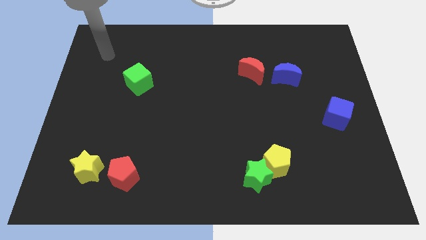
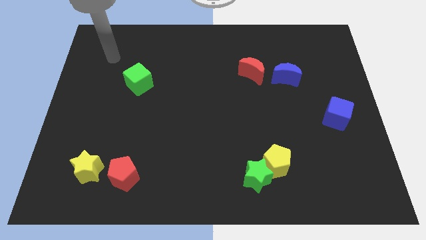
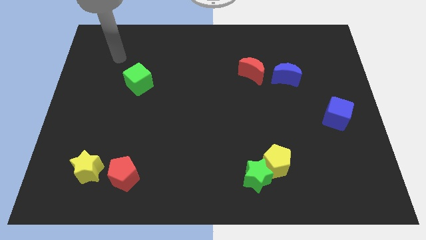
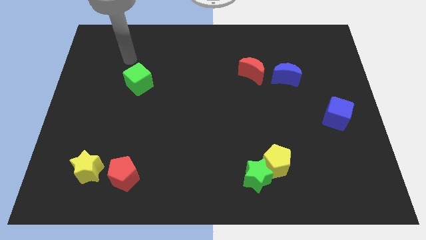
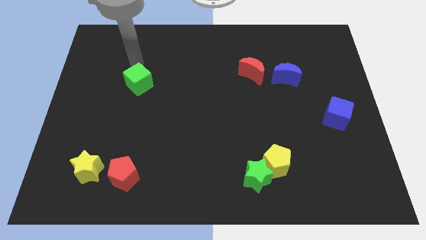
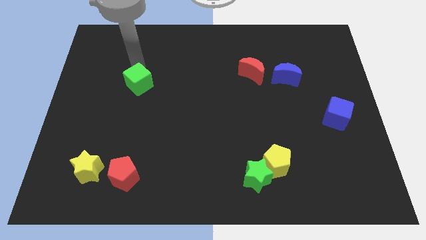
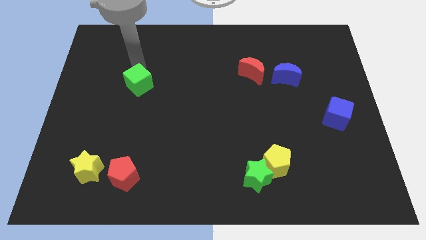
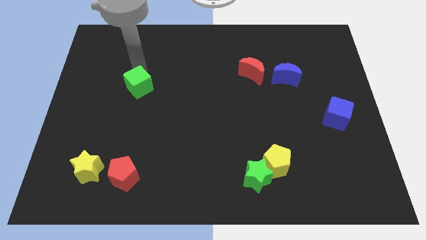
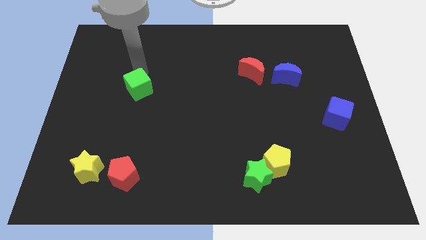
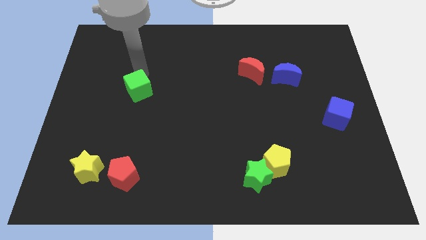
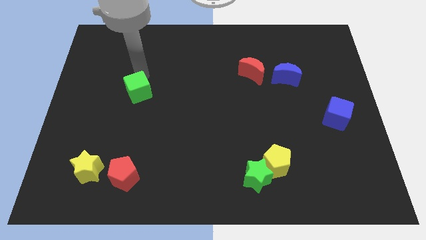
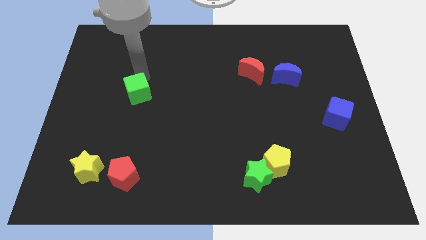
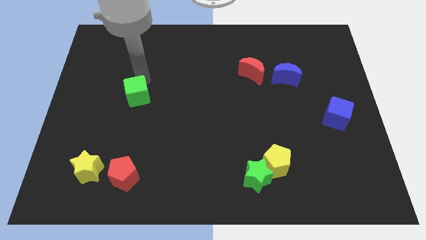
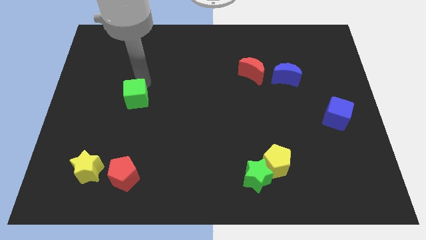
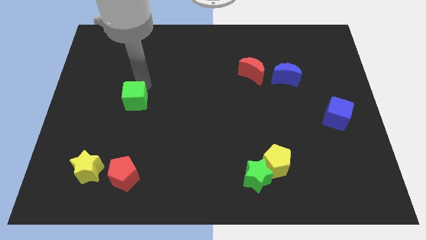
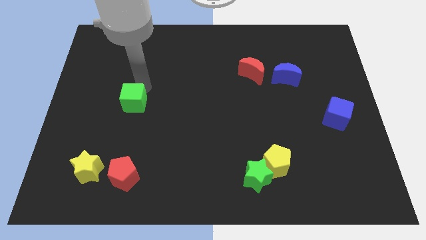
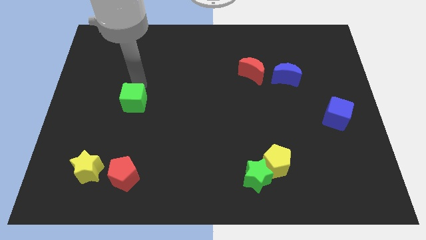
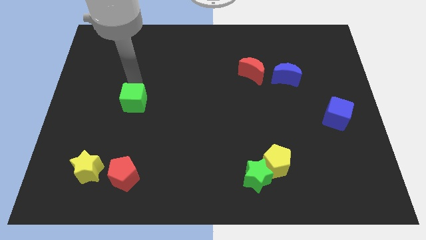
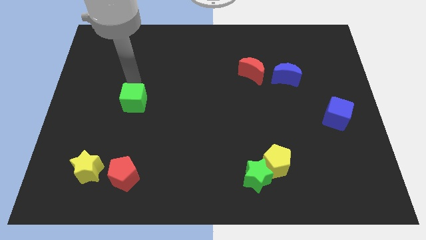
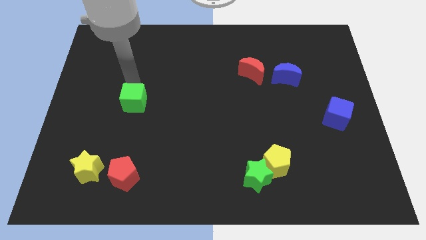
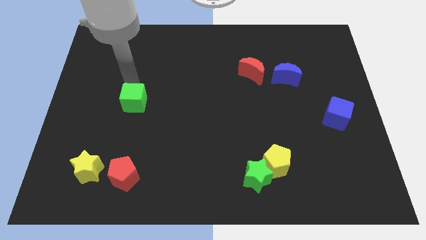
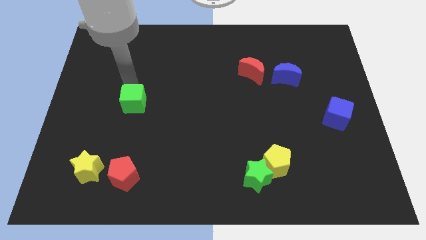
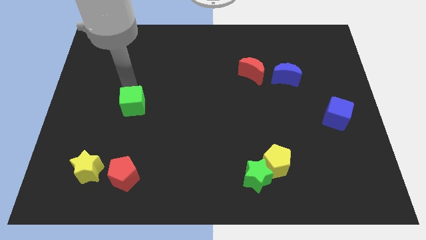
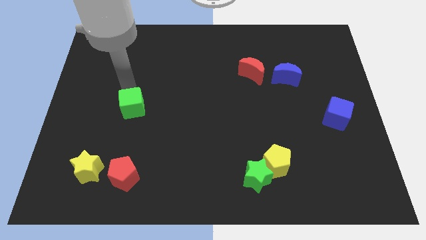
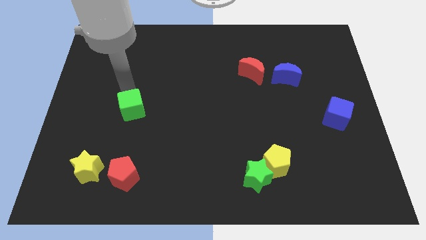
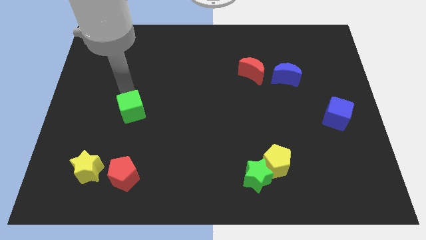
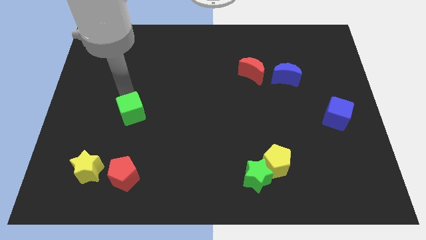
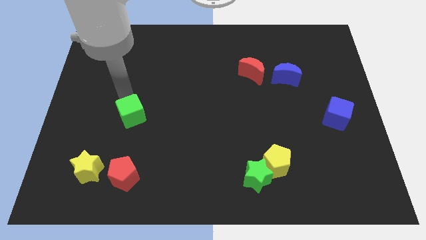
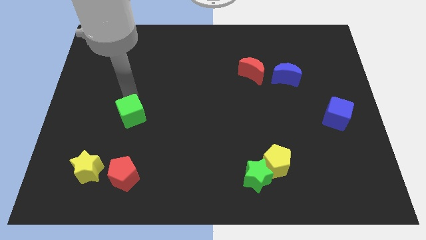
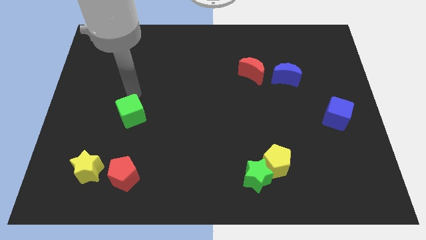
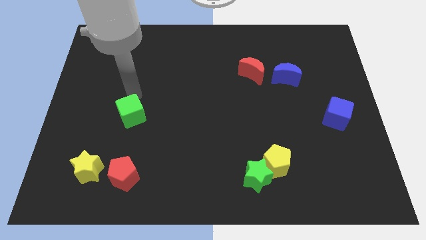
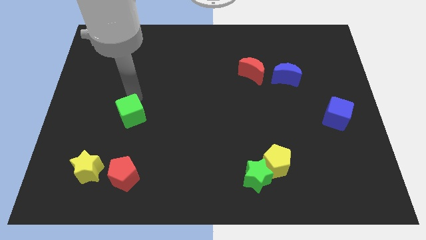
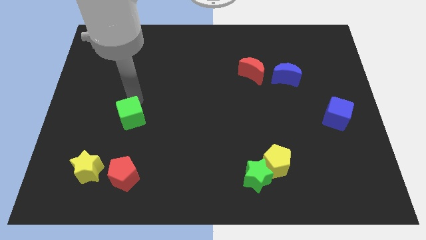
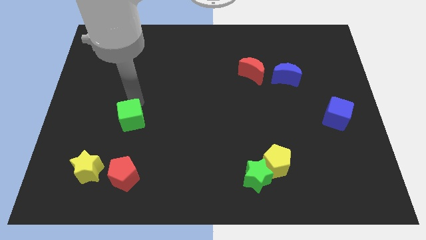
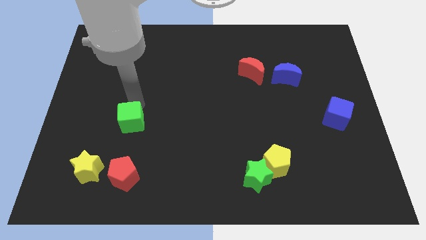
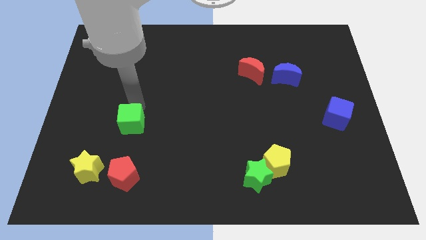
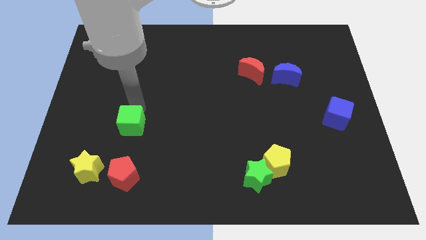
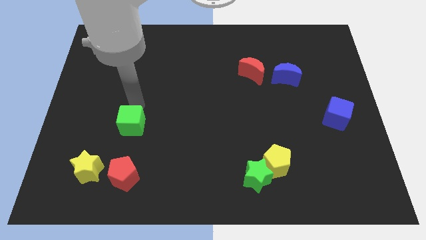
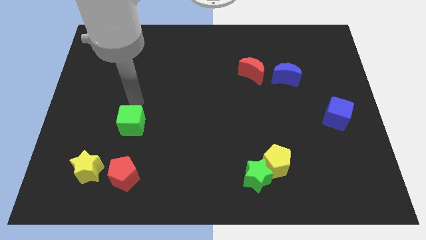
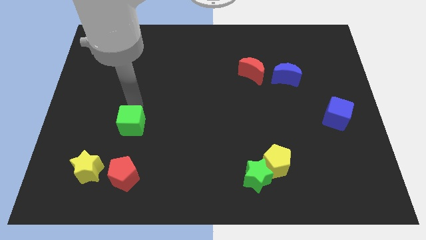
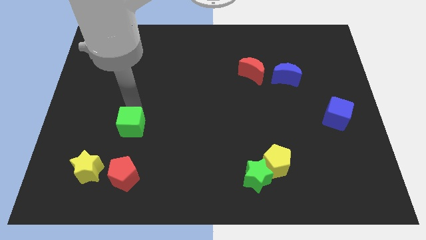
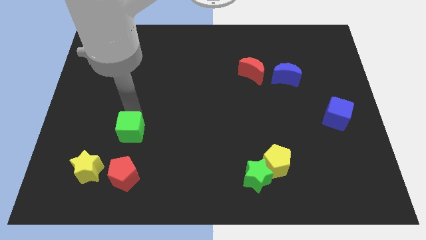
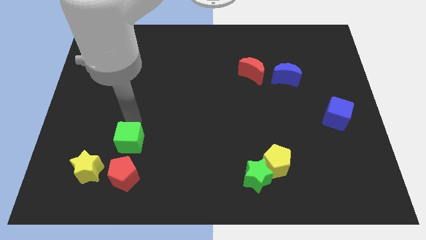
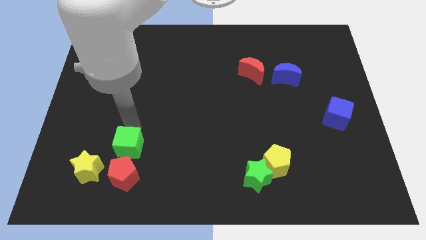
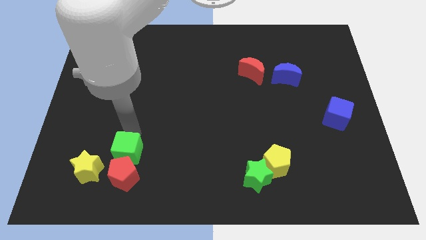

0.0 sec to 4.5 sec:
move the green cube close to the red pentagon

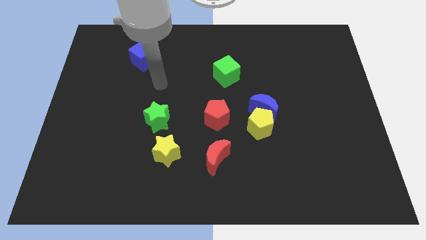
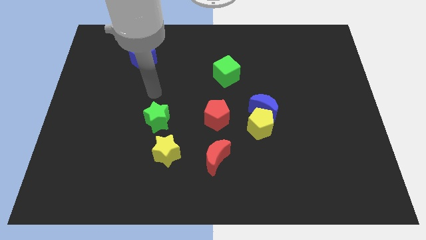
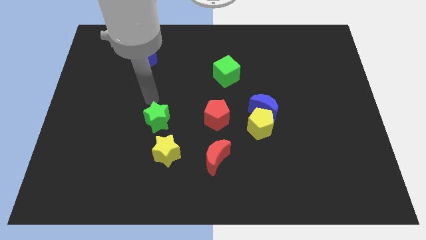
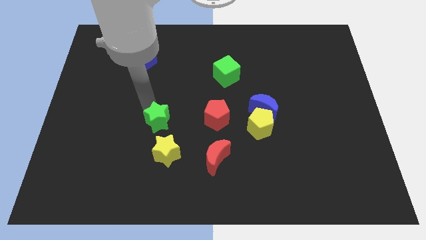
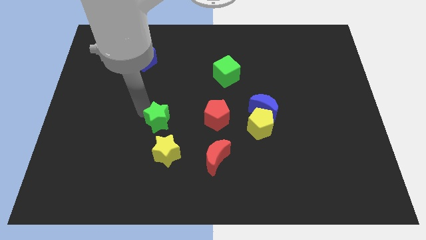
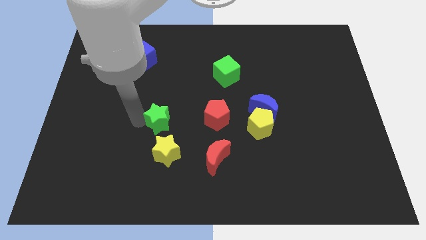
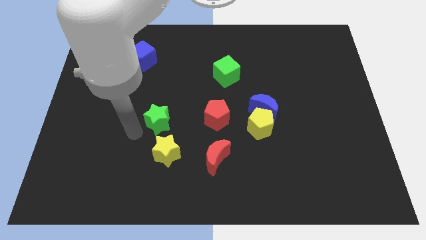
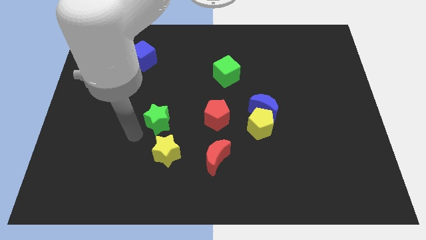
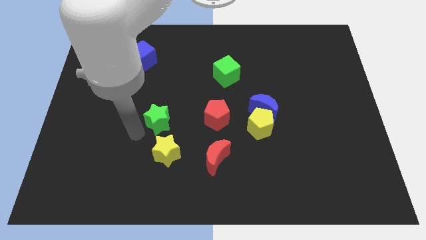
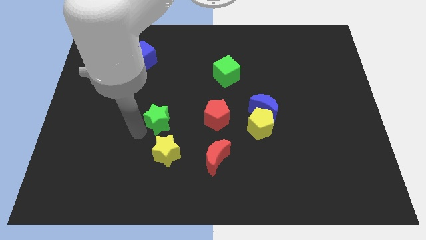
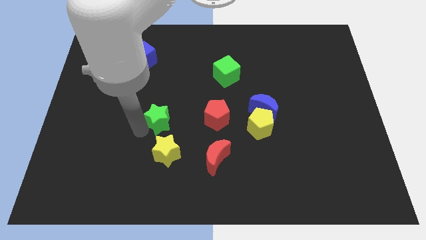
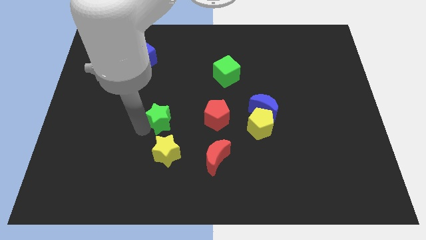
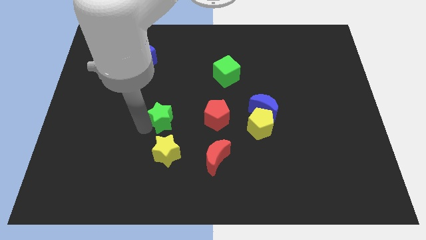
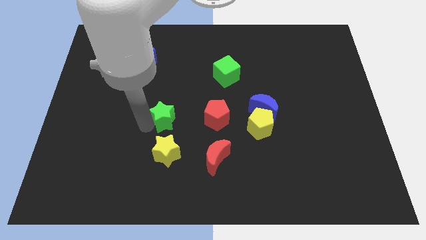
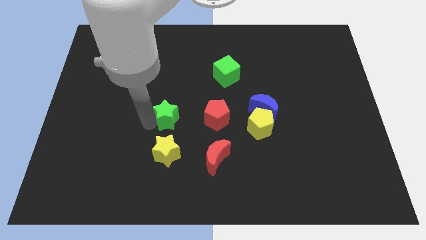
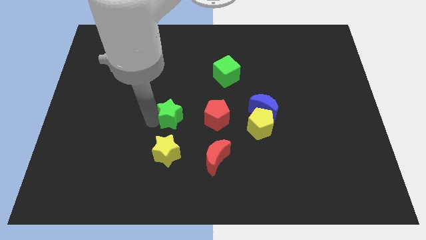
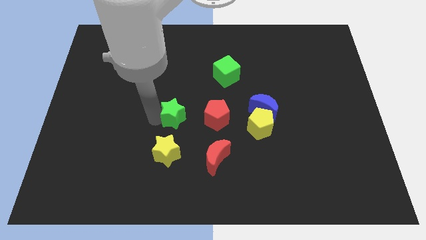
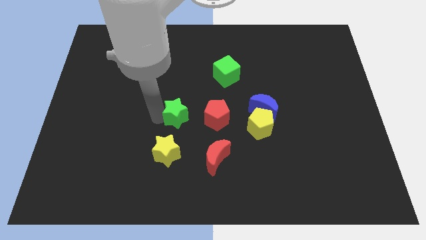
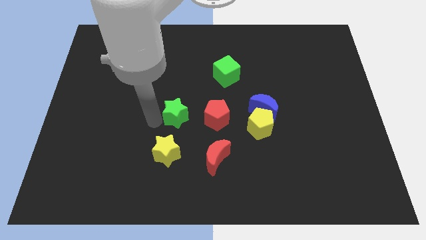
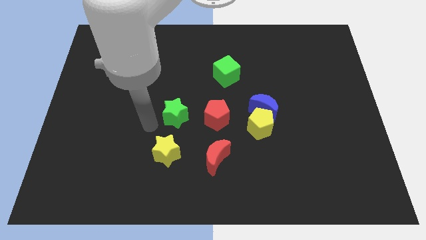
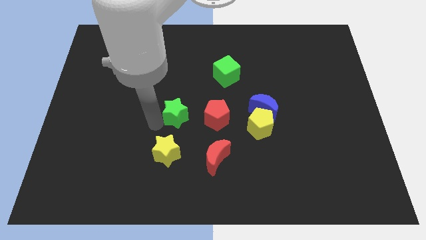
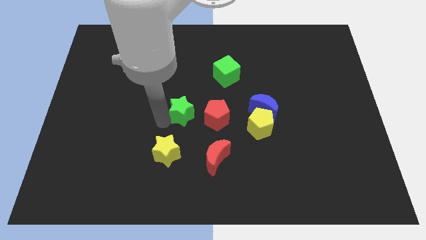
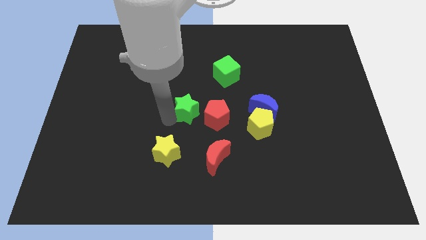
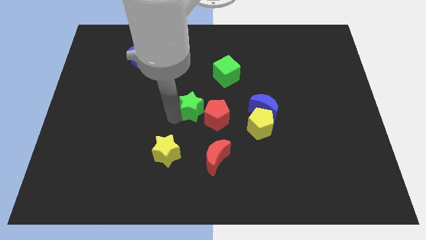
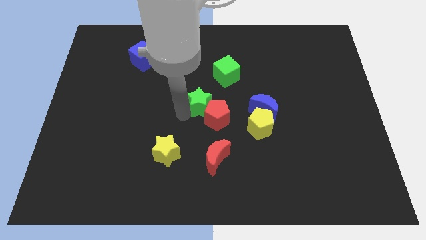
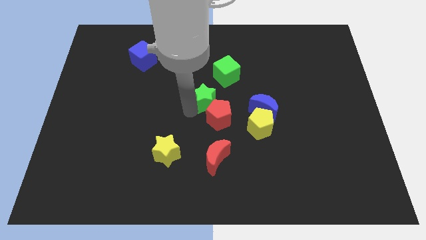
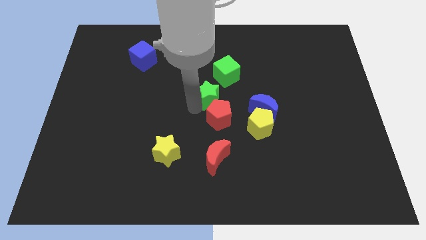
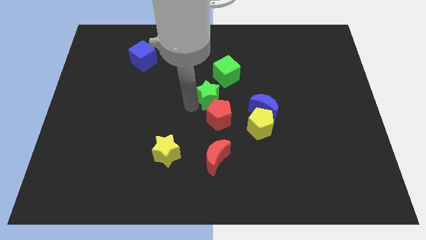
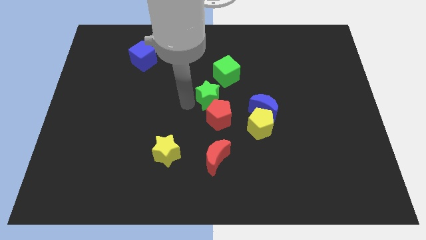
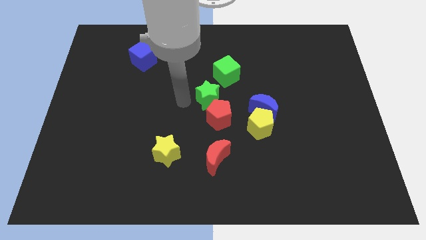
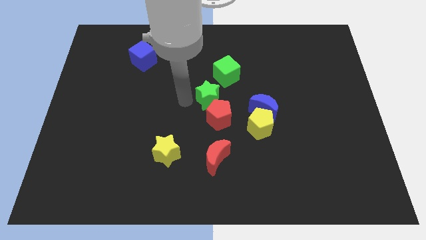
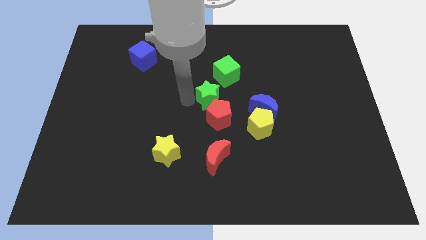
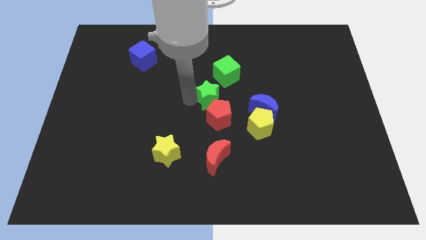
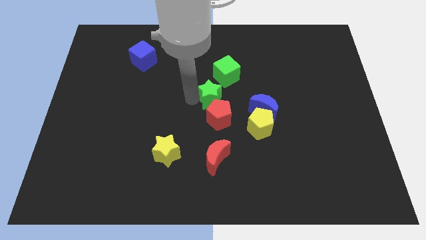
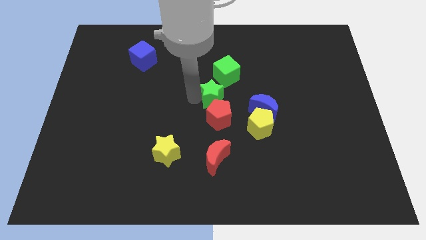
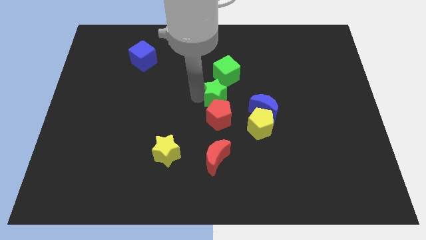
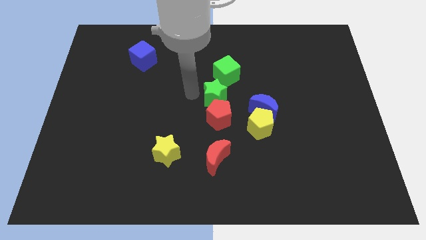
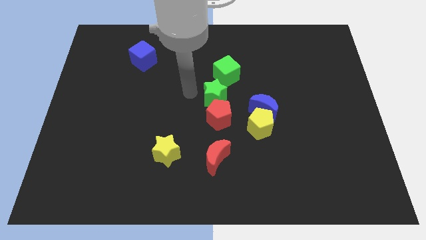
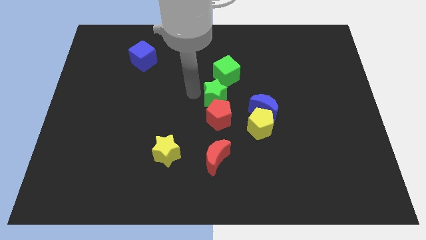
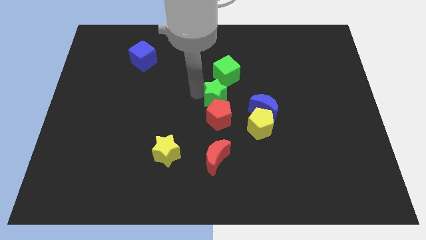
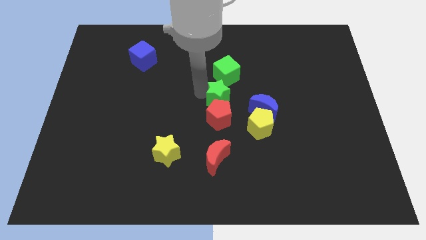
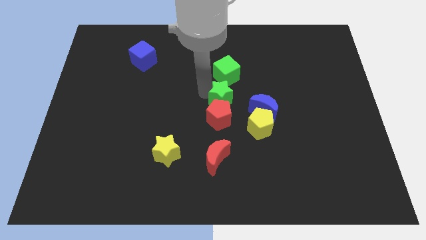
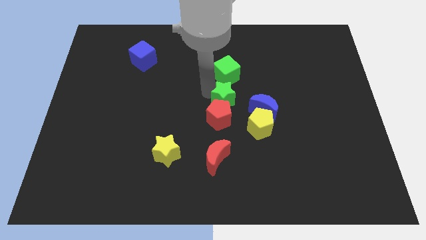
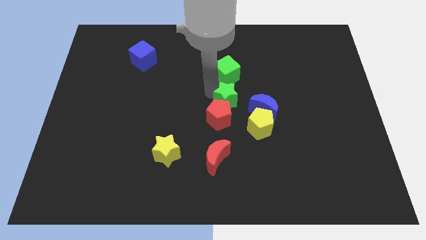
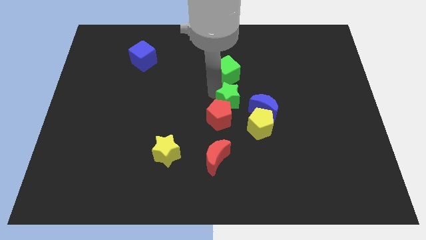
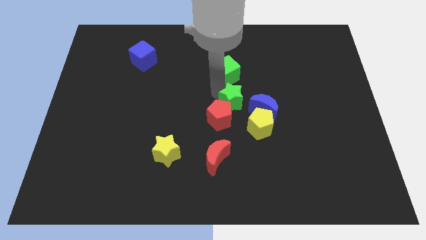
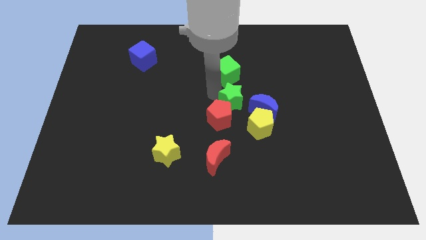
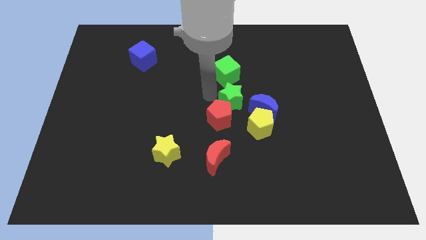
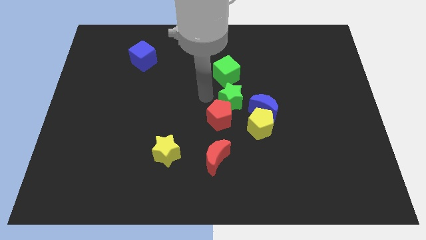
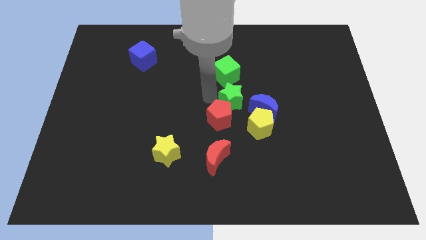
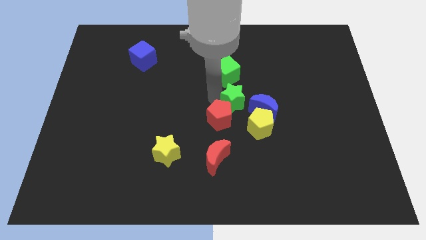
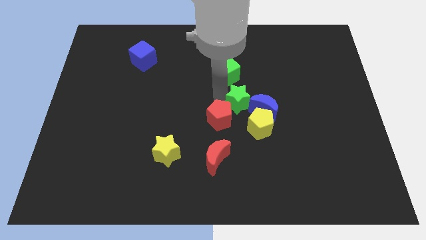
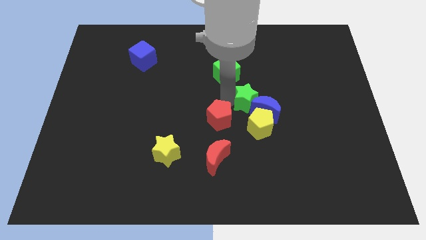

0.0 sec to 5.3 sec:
put the green star close to the blue moon
